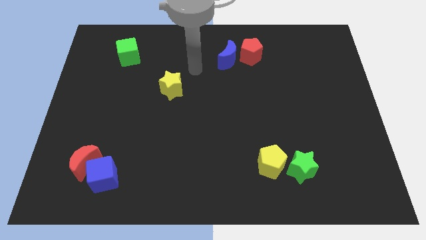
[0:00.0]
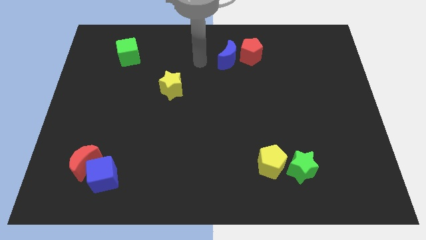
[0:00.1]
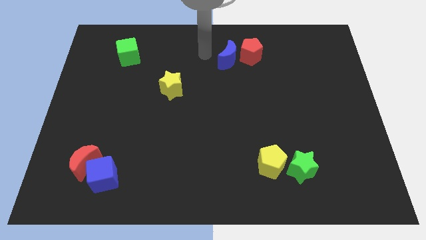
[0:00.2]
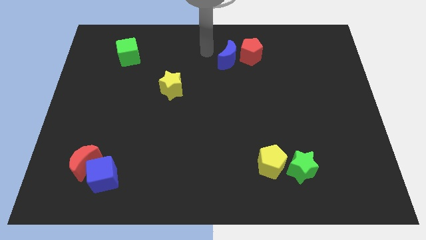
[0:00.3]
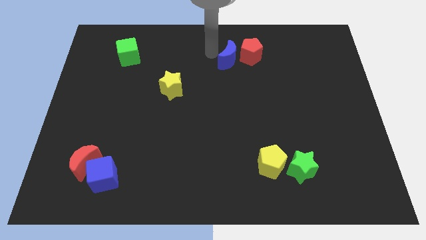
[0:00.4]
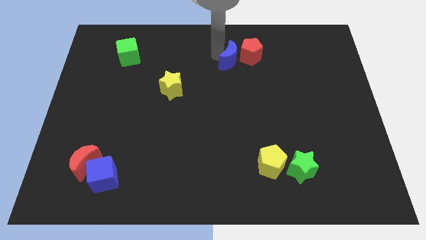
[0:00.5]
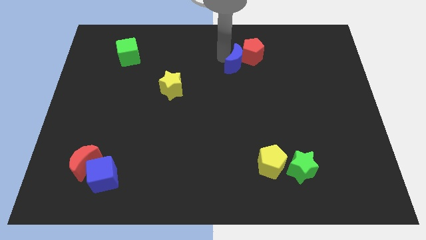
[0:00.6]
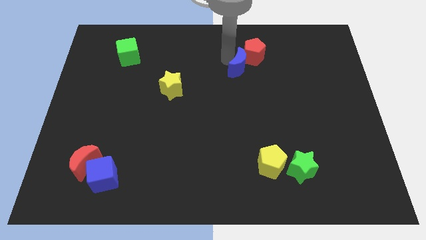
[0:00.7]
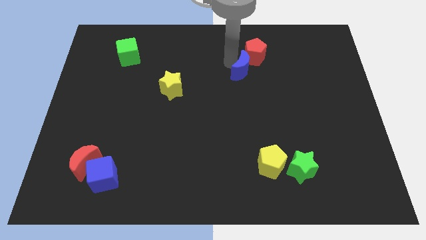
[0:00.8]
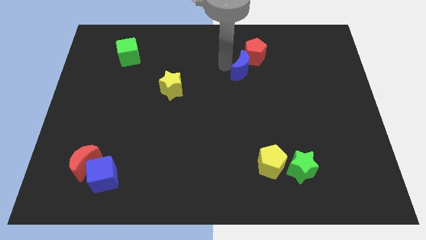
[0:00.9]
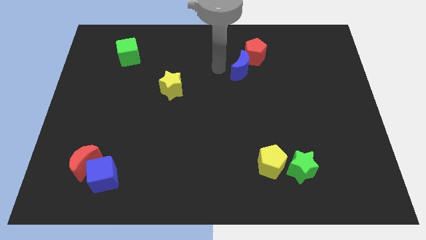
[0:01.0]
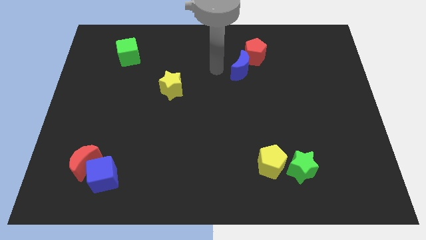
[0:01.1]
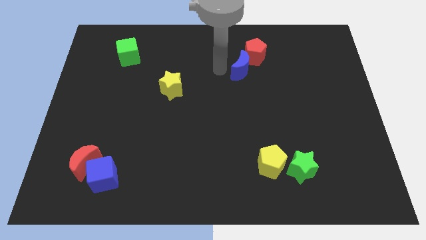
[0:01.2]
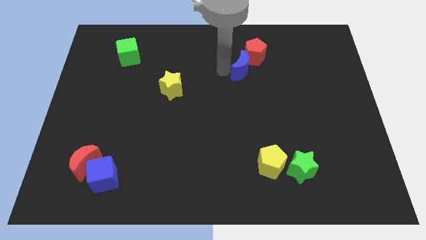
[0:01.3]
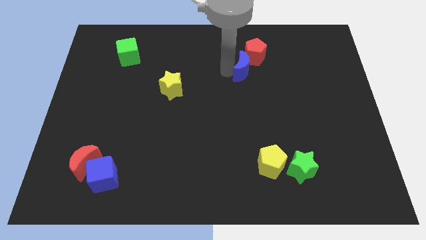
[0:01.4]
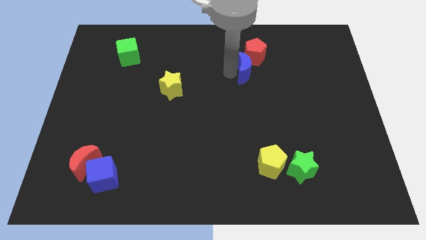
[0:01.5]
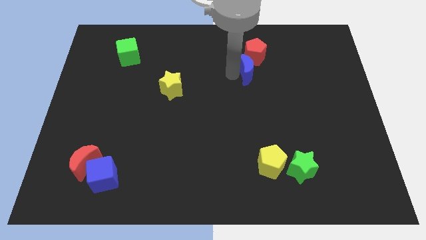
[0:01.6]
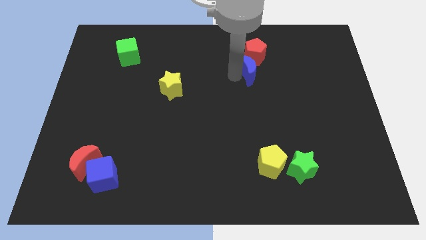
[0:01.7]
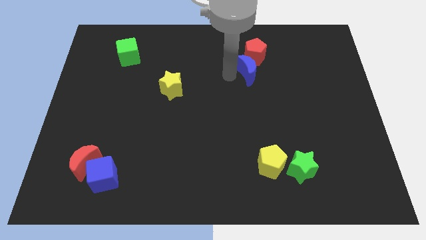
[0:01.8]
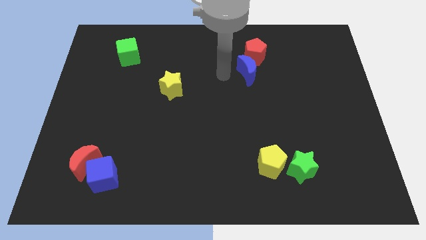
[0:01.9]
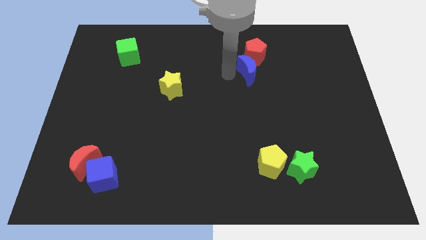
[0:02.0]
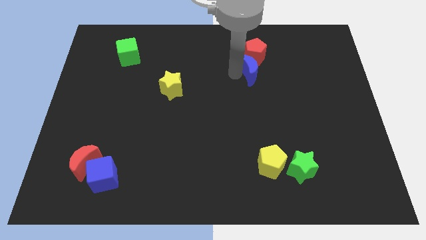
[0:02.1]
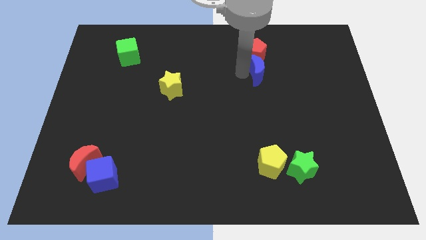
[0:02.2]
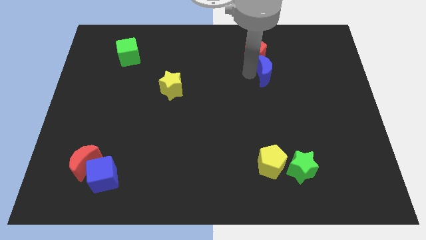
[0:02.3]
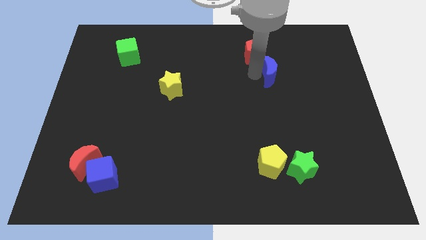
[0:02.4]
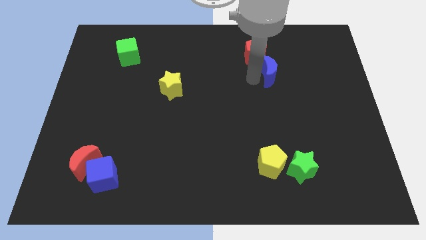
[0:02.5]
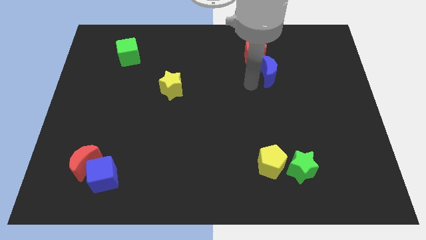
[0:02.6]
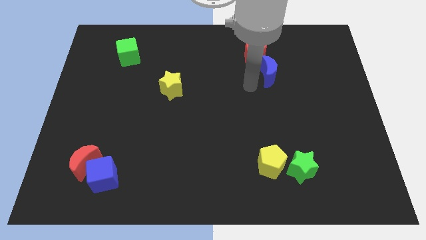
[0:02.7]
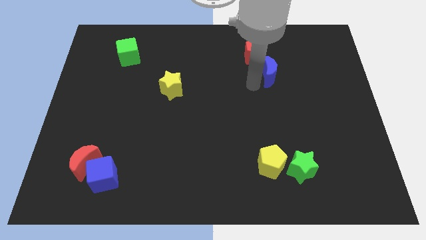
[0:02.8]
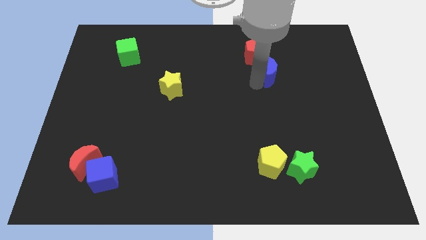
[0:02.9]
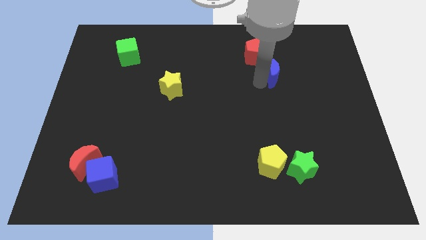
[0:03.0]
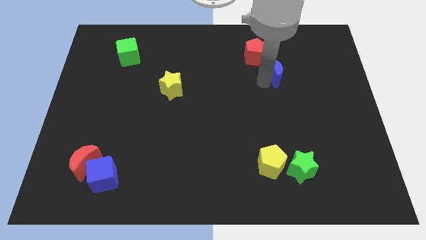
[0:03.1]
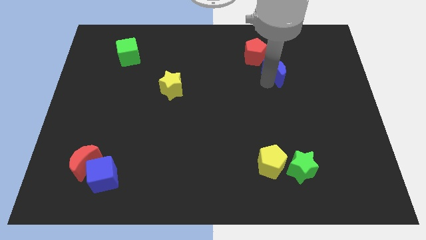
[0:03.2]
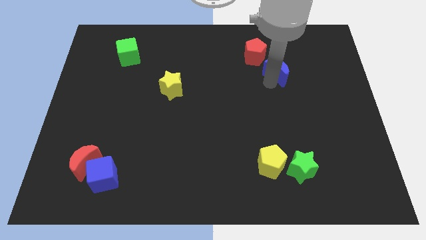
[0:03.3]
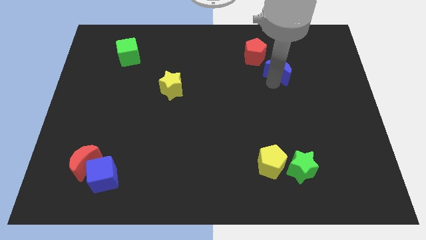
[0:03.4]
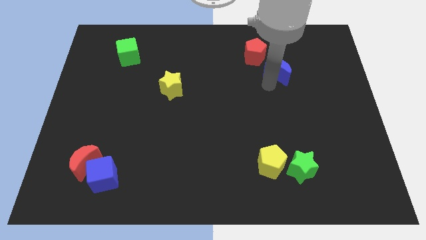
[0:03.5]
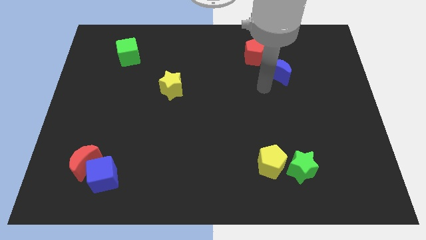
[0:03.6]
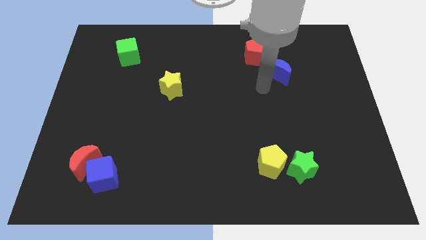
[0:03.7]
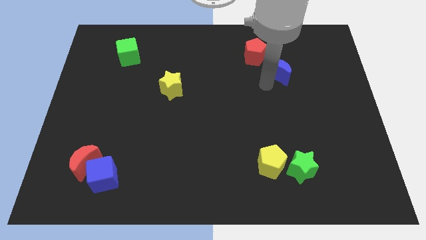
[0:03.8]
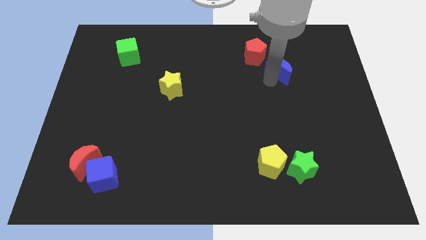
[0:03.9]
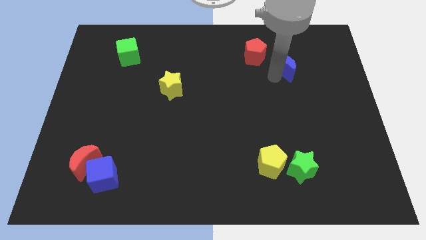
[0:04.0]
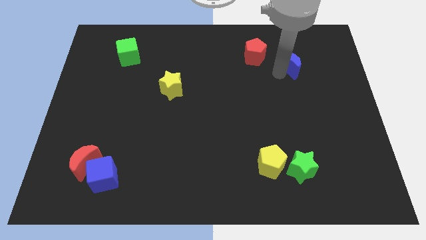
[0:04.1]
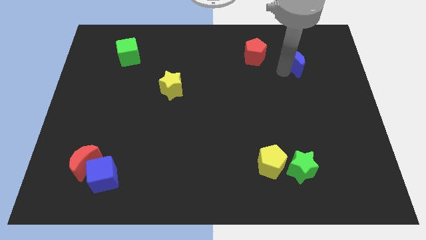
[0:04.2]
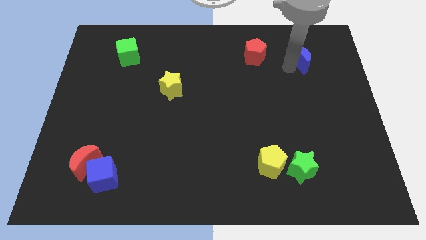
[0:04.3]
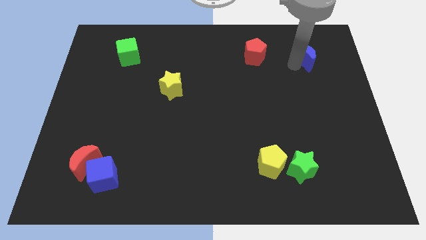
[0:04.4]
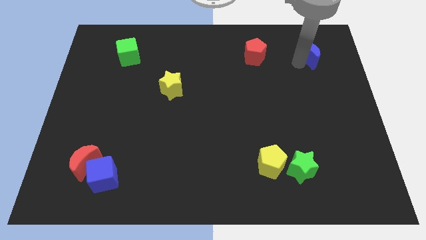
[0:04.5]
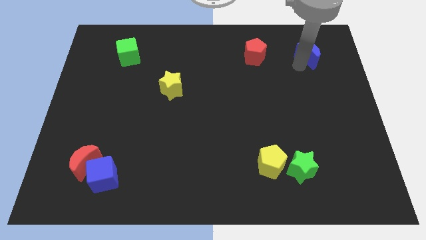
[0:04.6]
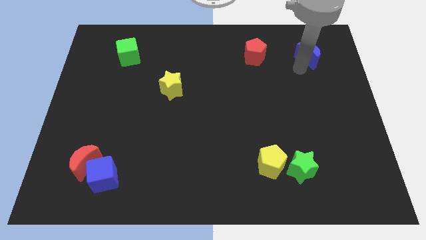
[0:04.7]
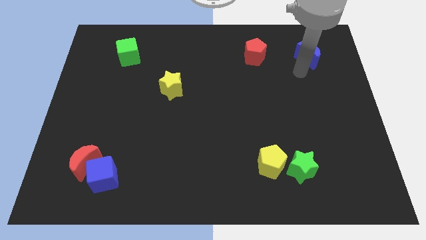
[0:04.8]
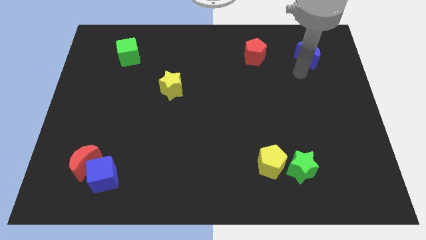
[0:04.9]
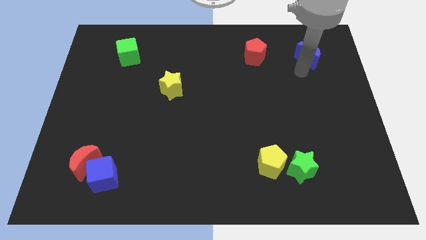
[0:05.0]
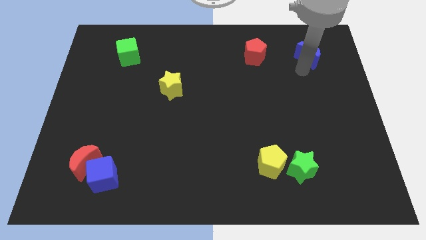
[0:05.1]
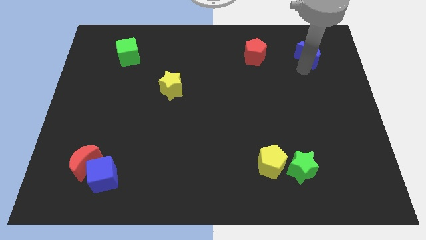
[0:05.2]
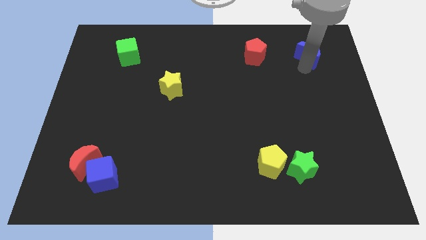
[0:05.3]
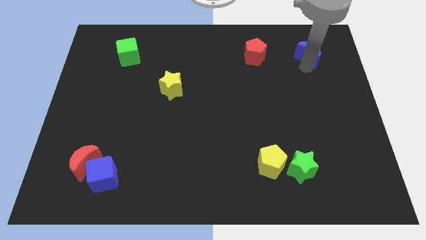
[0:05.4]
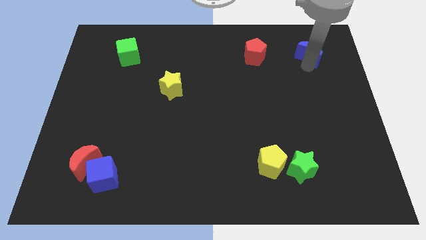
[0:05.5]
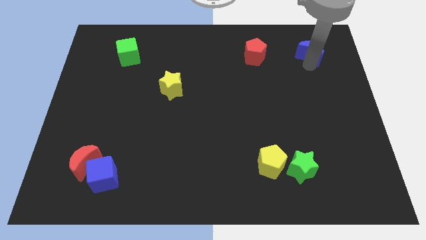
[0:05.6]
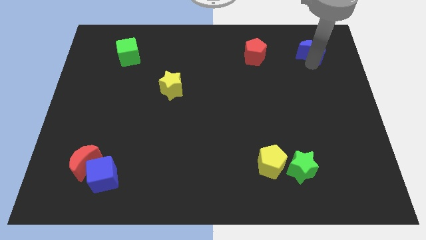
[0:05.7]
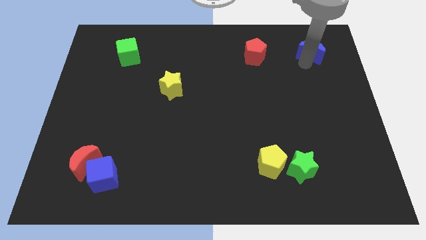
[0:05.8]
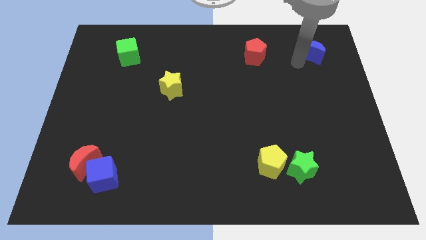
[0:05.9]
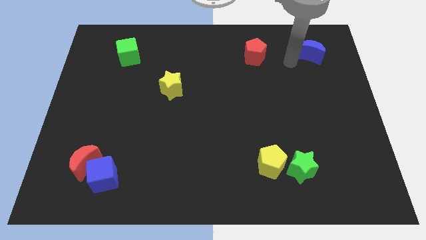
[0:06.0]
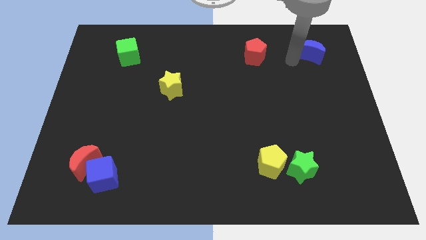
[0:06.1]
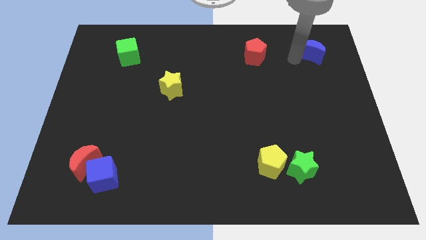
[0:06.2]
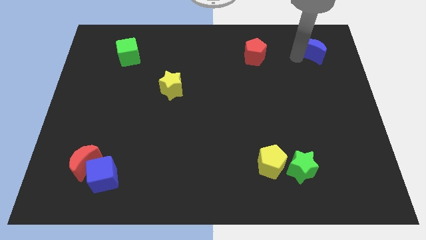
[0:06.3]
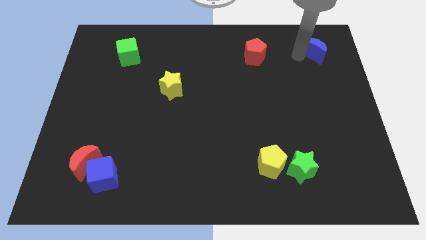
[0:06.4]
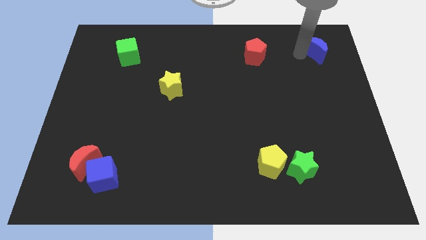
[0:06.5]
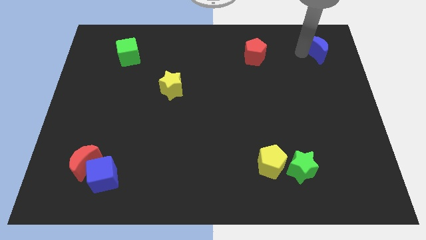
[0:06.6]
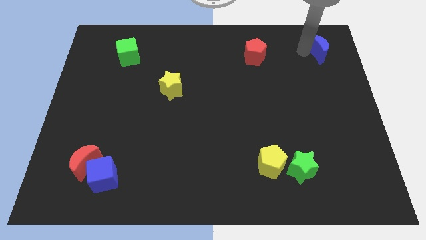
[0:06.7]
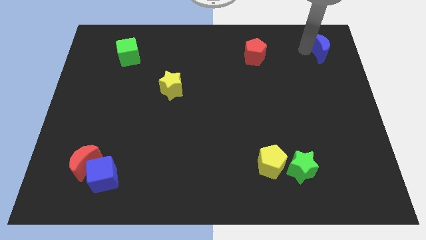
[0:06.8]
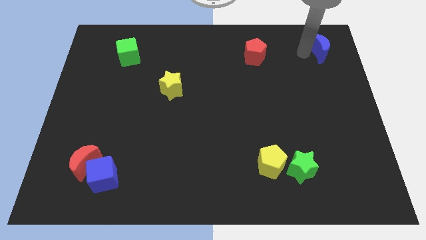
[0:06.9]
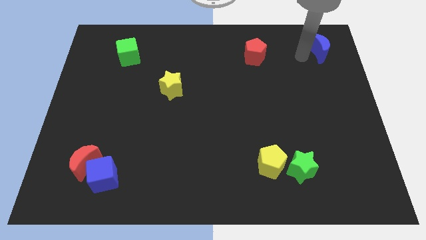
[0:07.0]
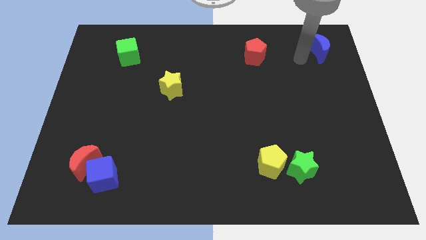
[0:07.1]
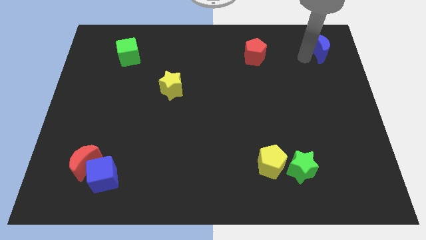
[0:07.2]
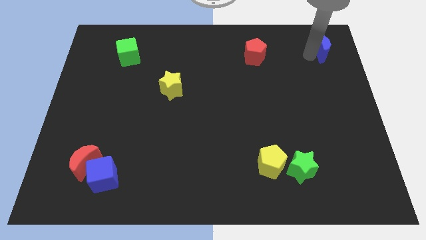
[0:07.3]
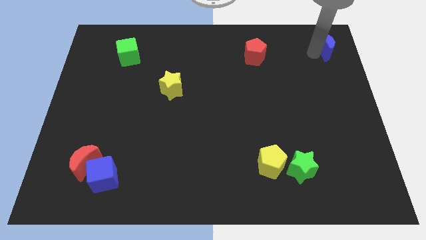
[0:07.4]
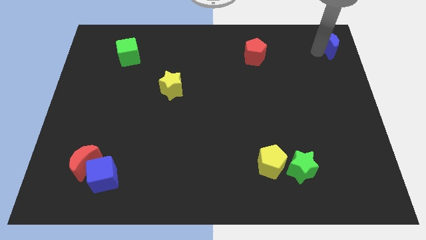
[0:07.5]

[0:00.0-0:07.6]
put the blue moon to the top right
